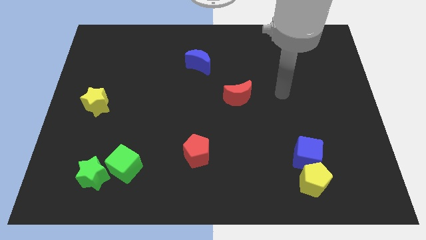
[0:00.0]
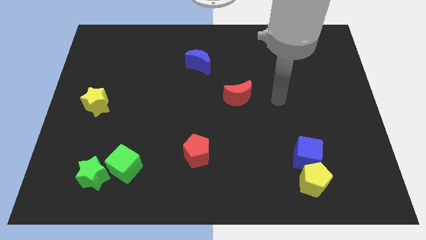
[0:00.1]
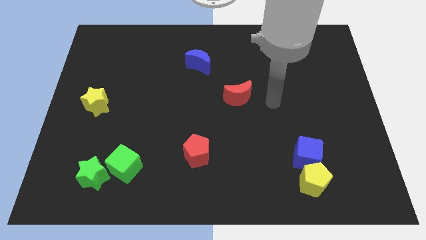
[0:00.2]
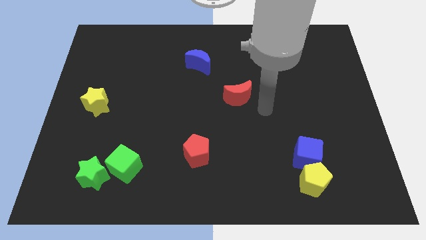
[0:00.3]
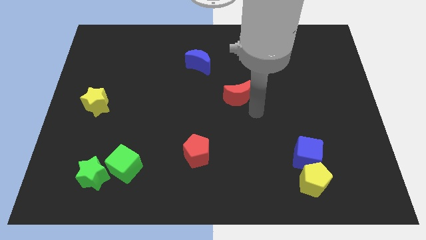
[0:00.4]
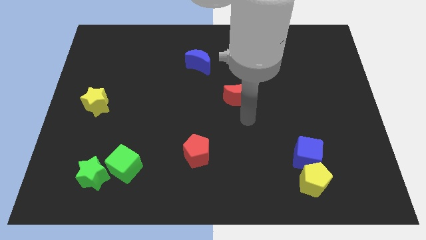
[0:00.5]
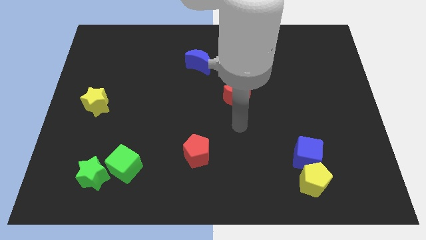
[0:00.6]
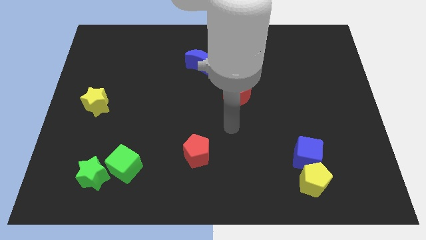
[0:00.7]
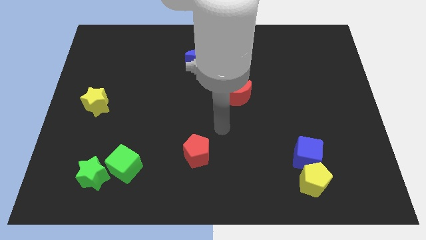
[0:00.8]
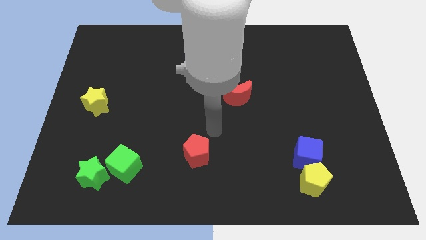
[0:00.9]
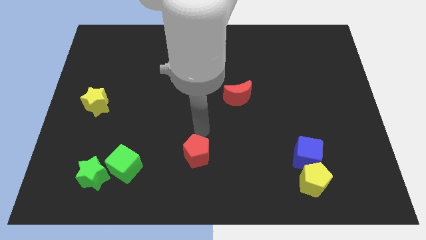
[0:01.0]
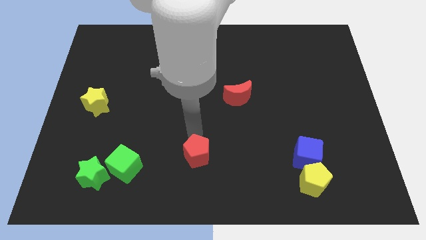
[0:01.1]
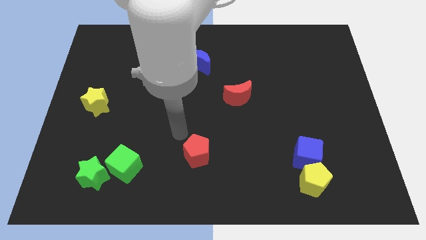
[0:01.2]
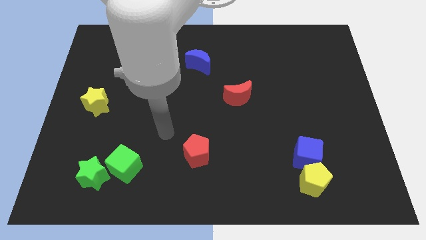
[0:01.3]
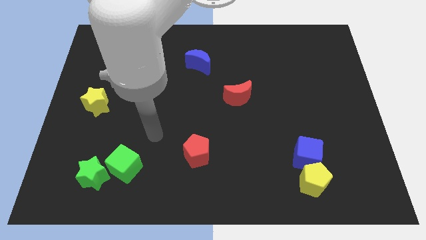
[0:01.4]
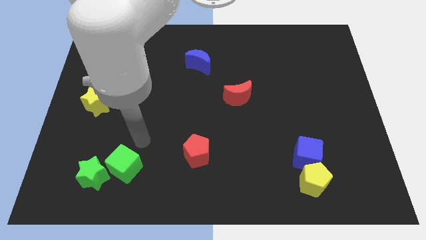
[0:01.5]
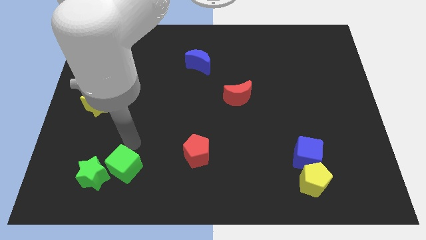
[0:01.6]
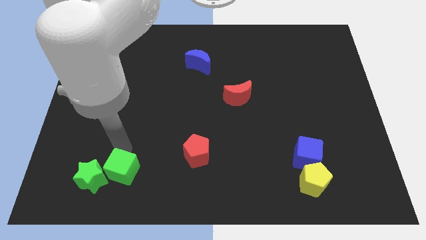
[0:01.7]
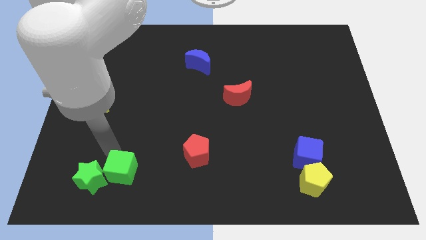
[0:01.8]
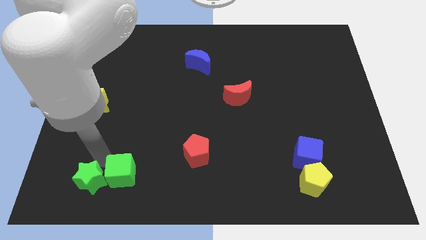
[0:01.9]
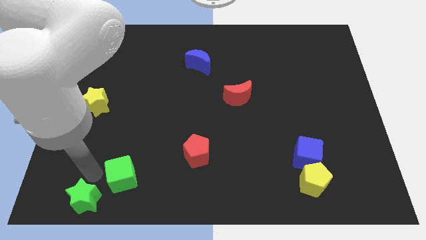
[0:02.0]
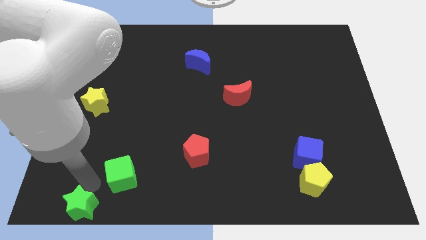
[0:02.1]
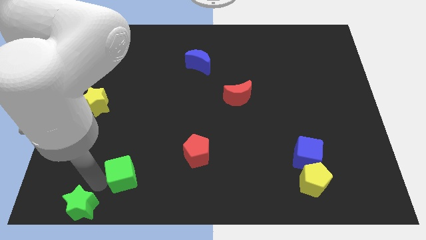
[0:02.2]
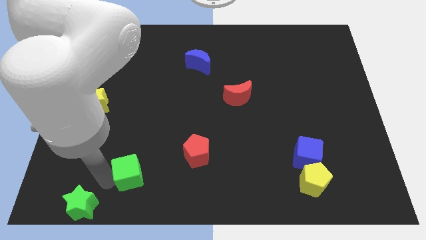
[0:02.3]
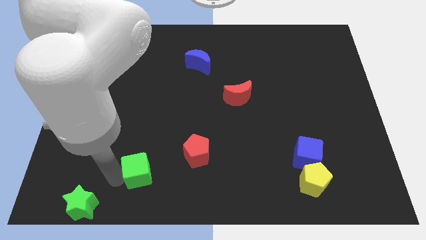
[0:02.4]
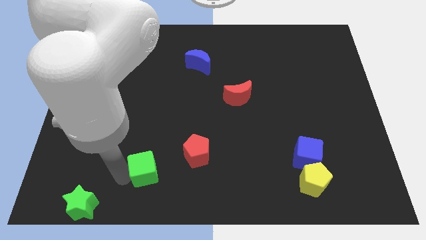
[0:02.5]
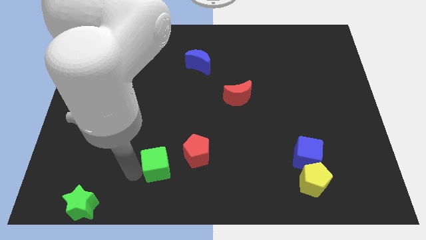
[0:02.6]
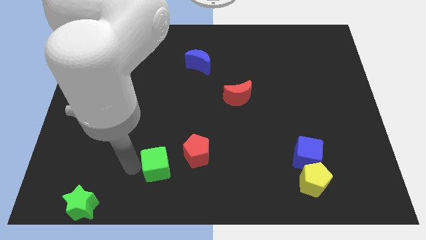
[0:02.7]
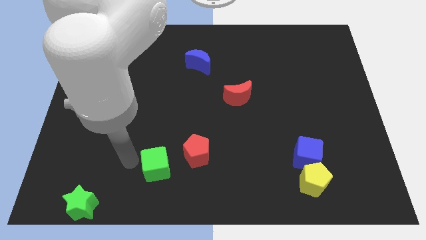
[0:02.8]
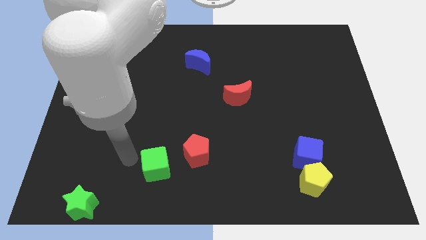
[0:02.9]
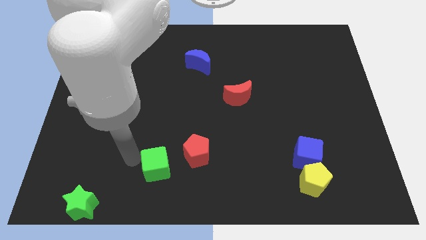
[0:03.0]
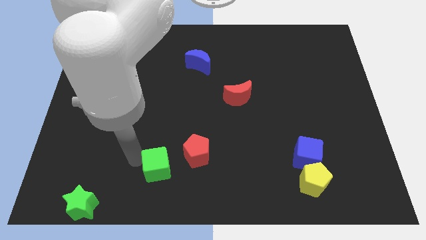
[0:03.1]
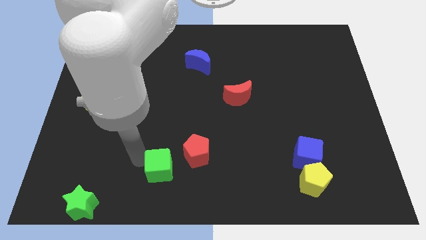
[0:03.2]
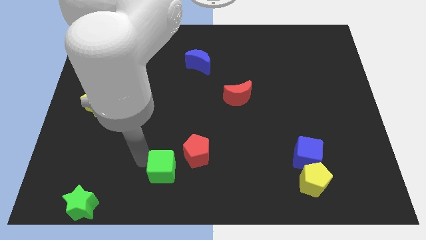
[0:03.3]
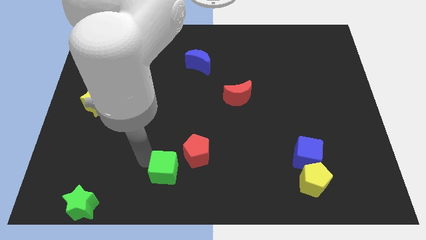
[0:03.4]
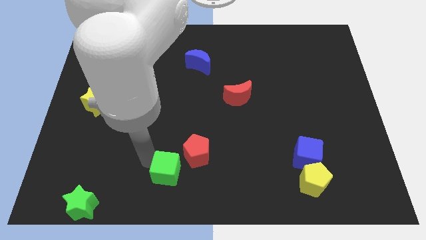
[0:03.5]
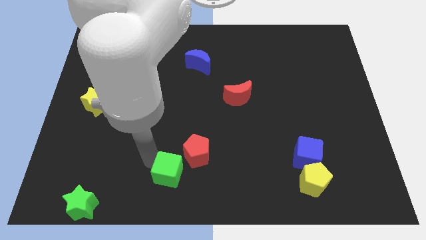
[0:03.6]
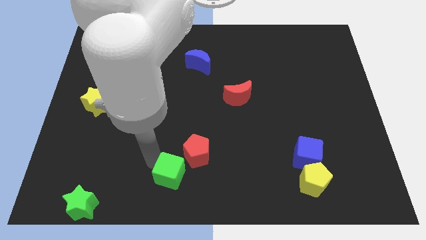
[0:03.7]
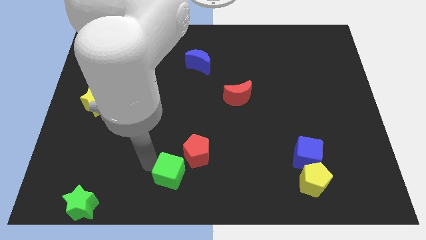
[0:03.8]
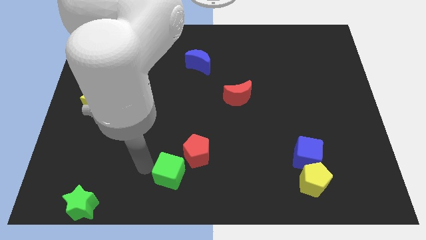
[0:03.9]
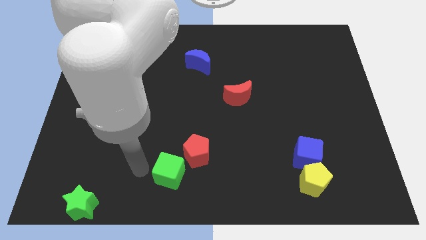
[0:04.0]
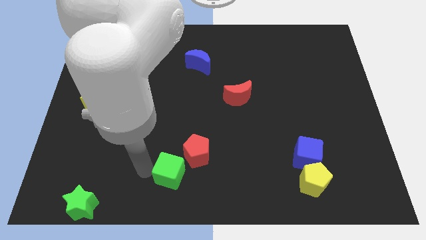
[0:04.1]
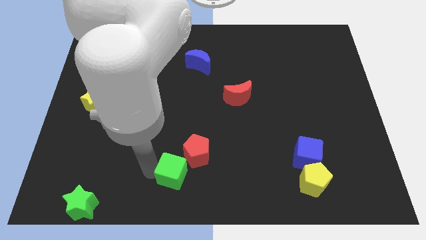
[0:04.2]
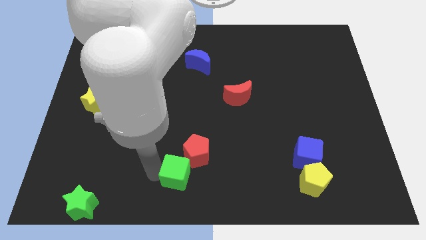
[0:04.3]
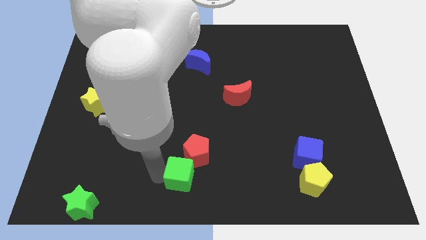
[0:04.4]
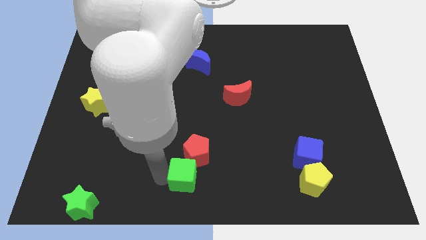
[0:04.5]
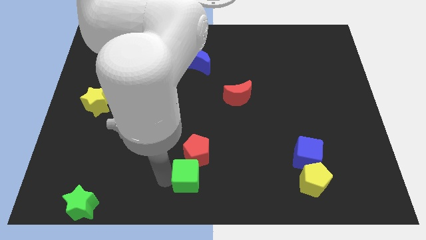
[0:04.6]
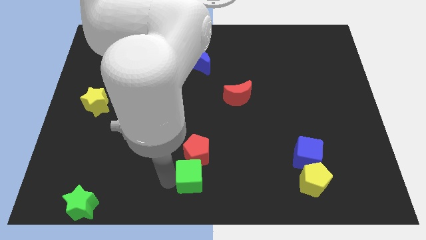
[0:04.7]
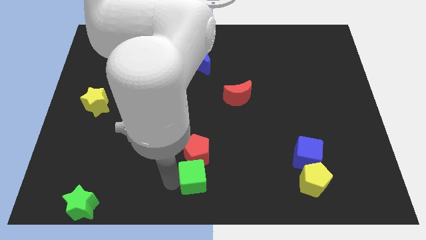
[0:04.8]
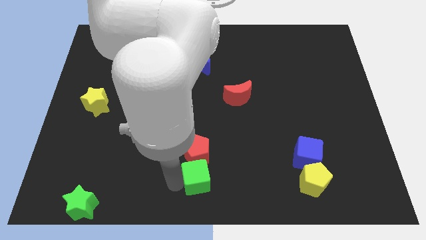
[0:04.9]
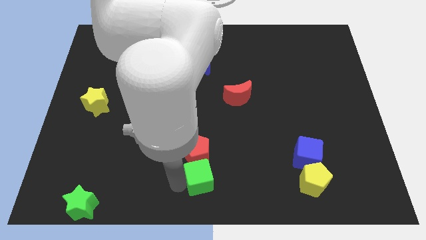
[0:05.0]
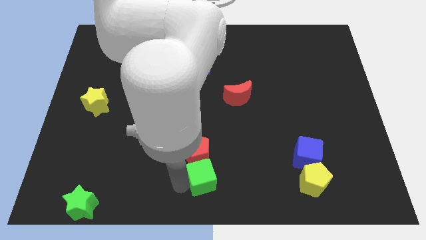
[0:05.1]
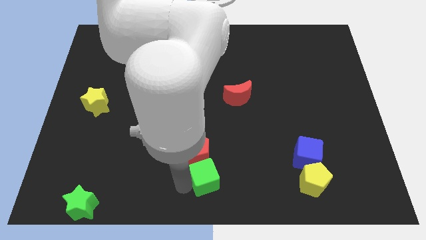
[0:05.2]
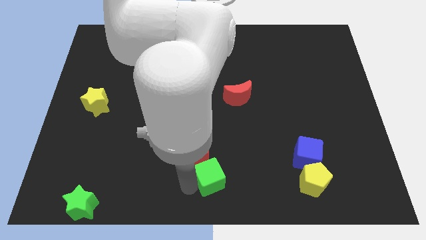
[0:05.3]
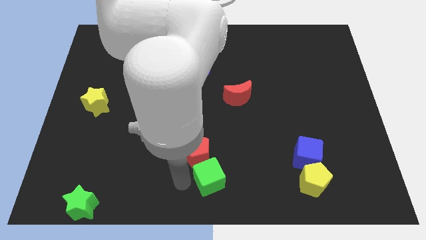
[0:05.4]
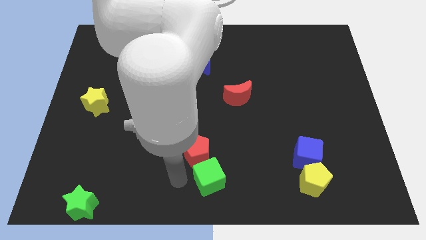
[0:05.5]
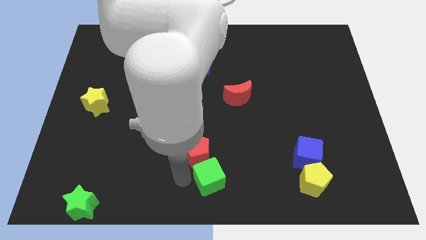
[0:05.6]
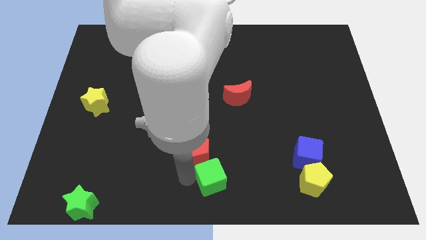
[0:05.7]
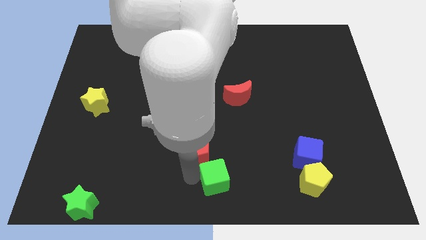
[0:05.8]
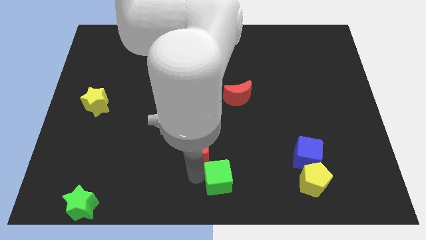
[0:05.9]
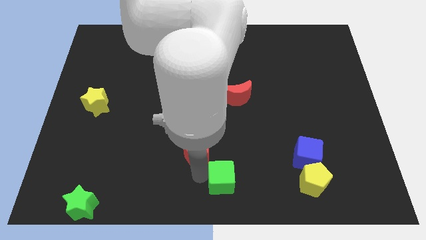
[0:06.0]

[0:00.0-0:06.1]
push the green cube right

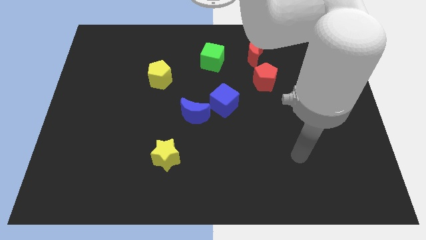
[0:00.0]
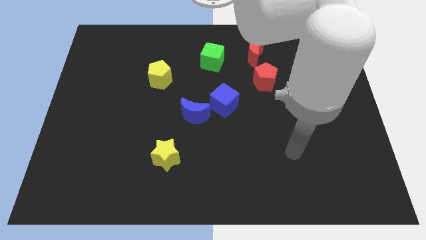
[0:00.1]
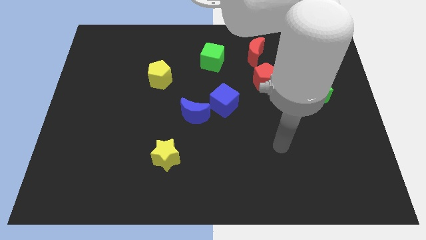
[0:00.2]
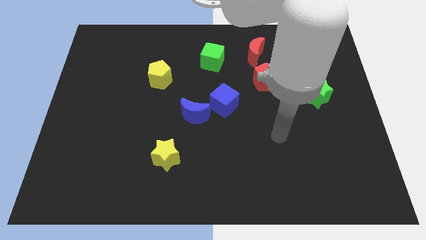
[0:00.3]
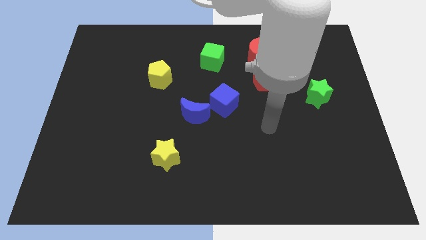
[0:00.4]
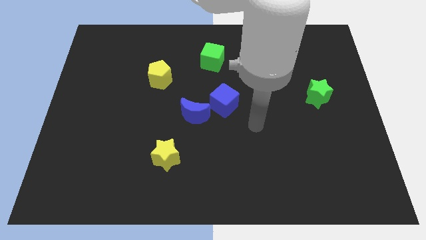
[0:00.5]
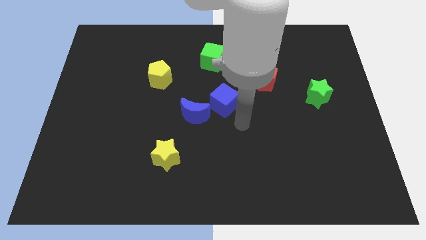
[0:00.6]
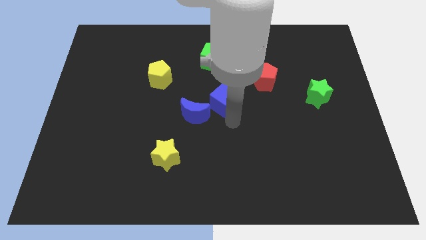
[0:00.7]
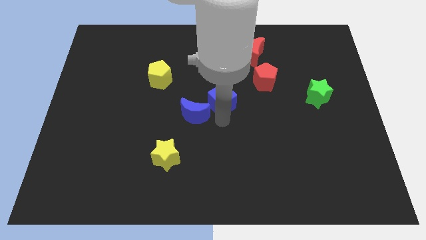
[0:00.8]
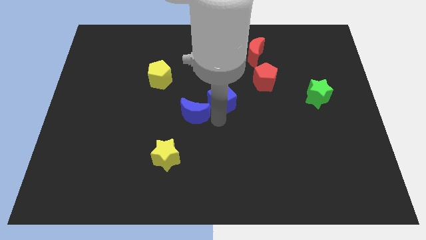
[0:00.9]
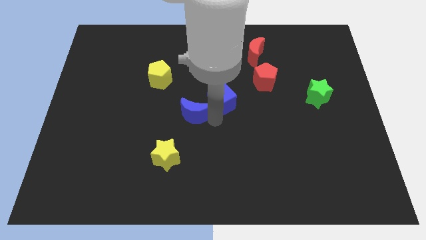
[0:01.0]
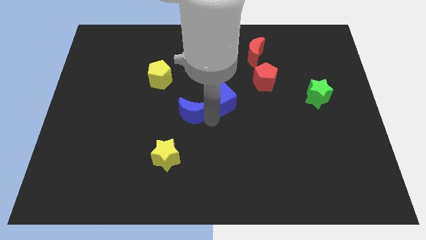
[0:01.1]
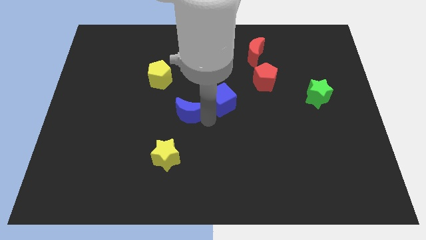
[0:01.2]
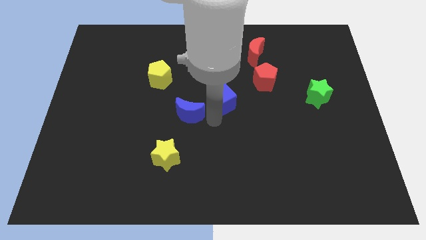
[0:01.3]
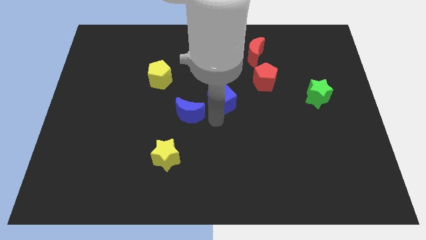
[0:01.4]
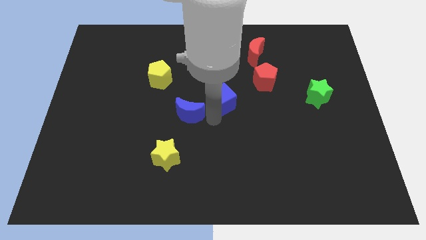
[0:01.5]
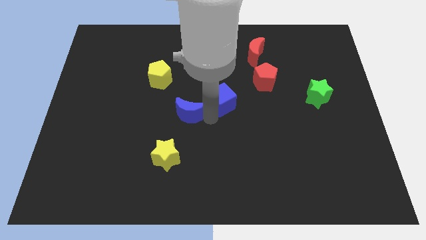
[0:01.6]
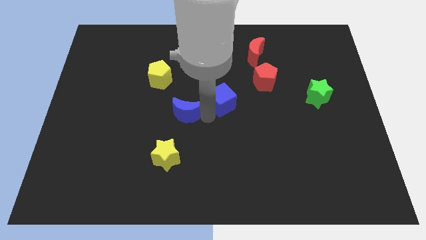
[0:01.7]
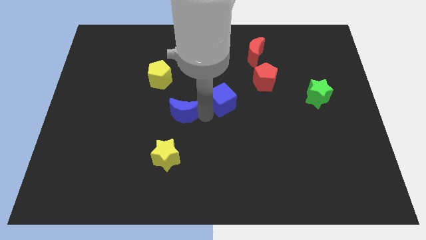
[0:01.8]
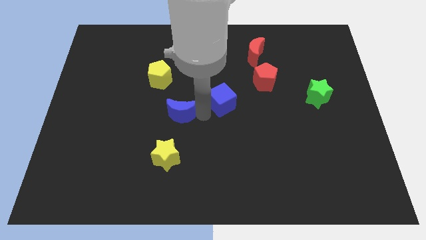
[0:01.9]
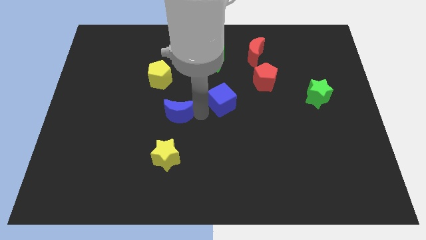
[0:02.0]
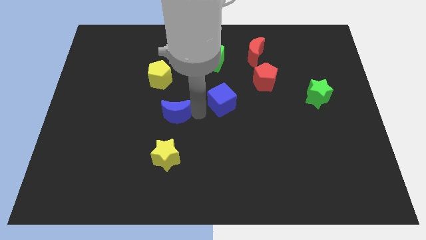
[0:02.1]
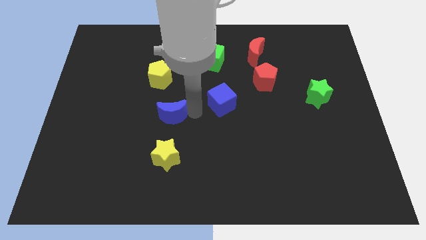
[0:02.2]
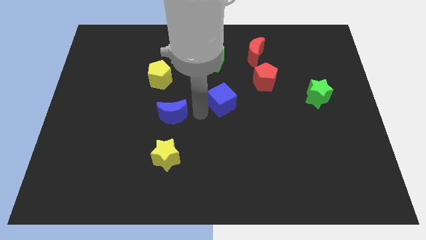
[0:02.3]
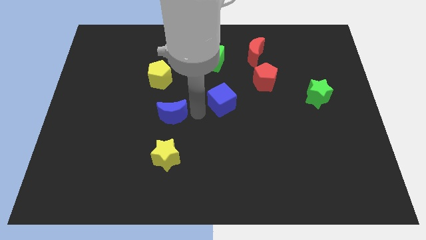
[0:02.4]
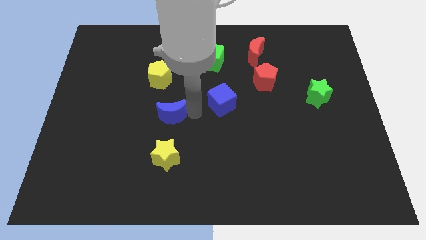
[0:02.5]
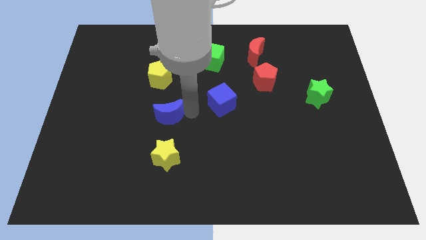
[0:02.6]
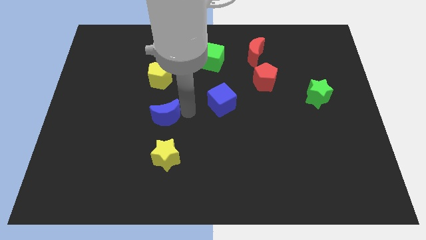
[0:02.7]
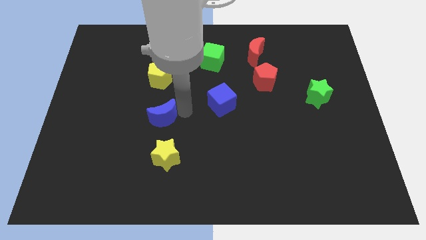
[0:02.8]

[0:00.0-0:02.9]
push the blue moon a bit to the left
